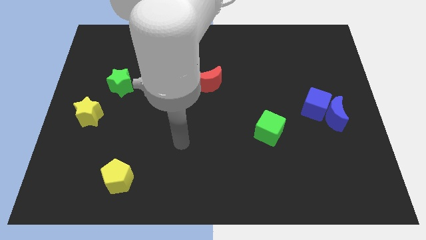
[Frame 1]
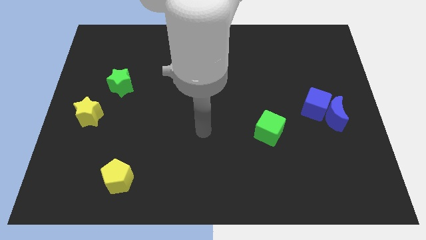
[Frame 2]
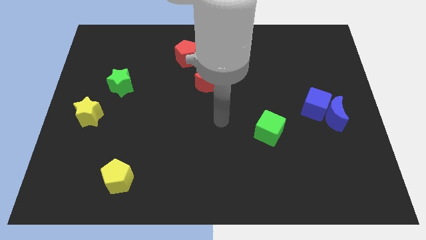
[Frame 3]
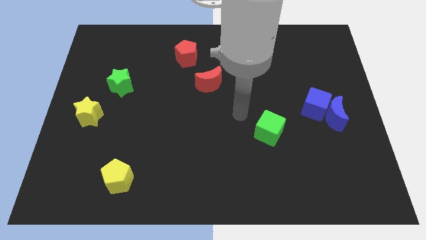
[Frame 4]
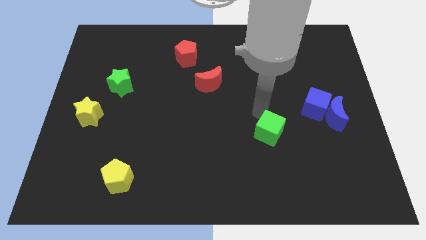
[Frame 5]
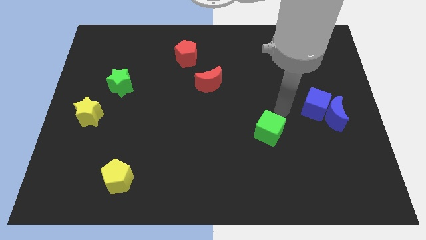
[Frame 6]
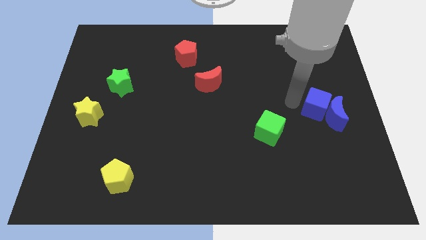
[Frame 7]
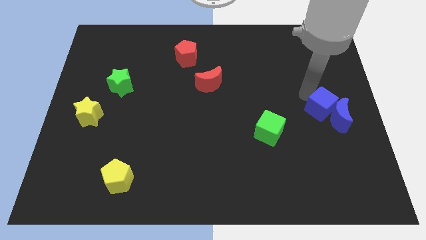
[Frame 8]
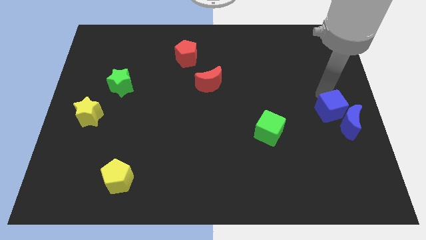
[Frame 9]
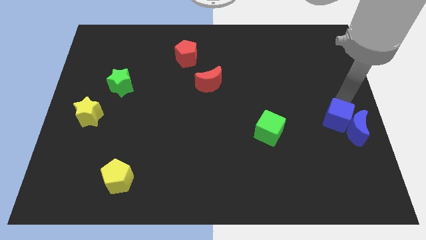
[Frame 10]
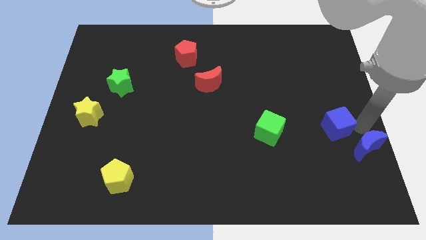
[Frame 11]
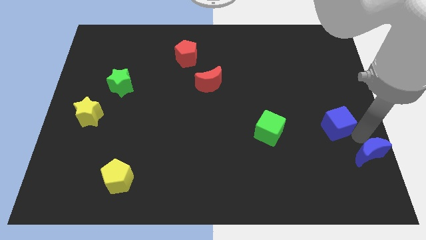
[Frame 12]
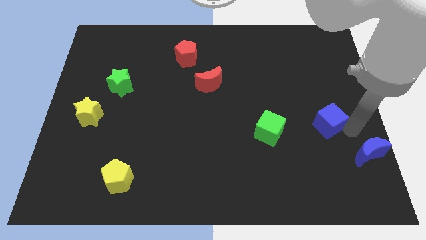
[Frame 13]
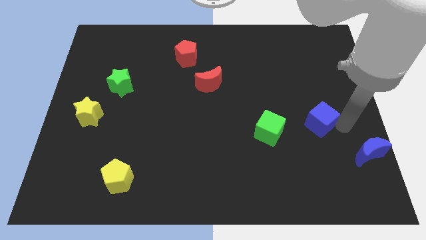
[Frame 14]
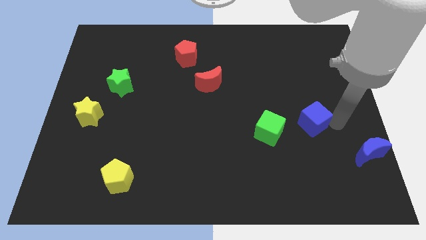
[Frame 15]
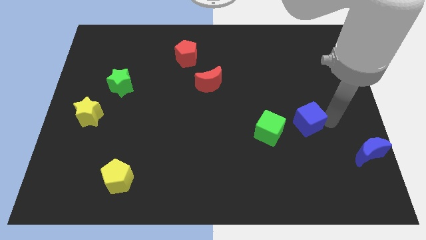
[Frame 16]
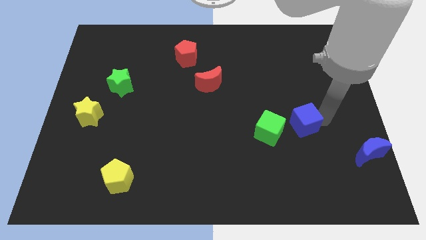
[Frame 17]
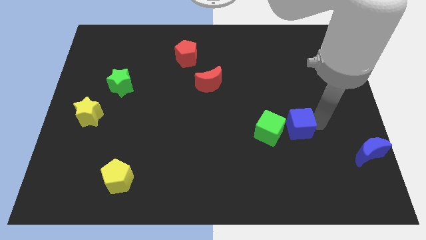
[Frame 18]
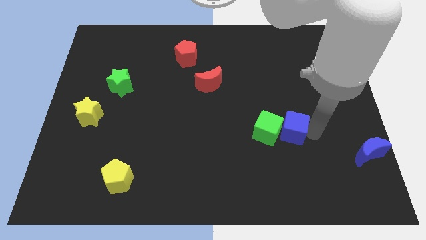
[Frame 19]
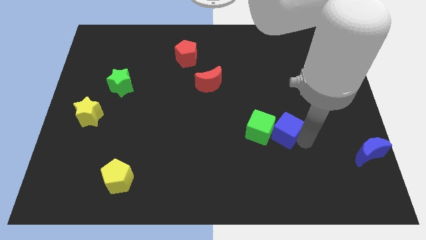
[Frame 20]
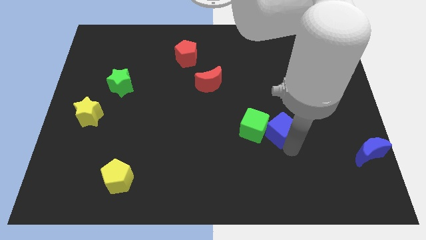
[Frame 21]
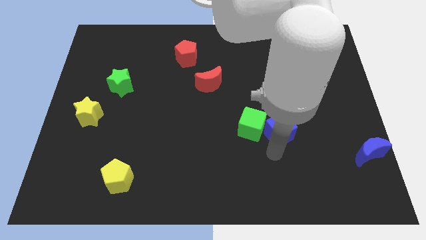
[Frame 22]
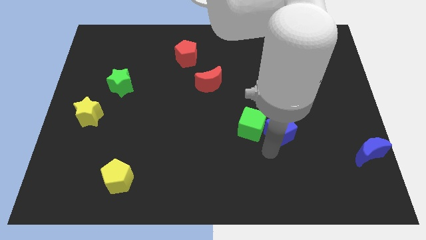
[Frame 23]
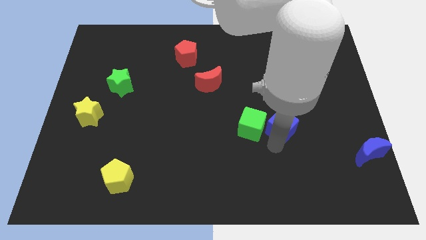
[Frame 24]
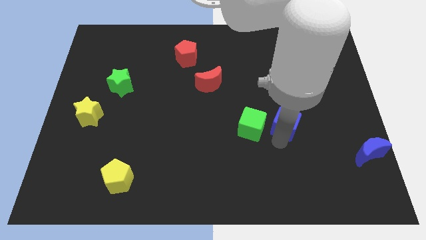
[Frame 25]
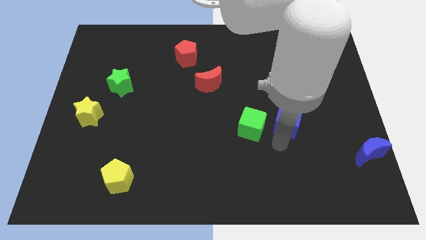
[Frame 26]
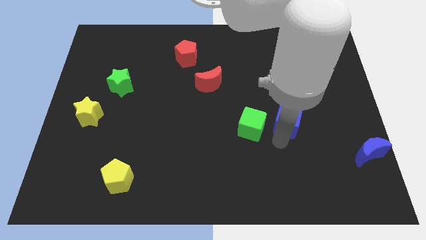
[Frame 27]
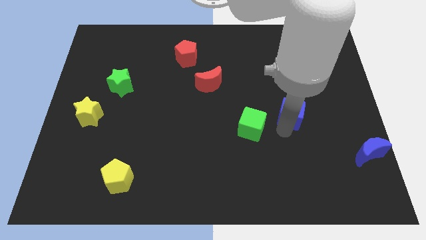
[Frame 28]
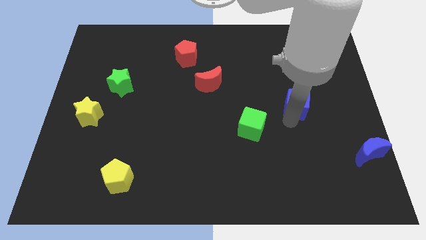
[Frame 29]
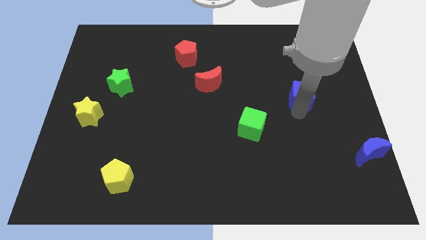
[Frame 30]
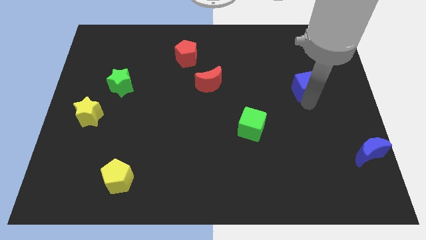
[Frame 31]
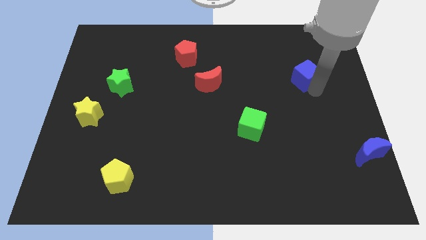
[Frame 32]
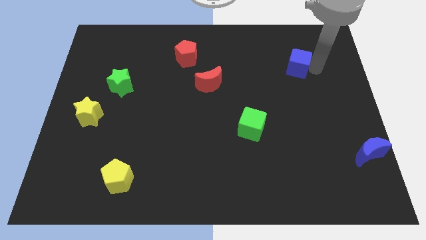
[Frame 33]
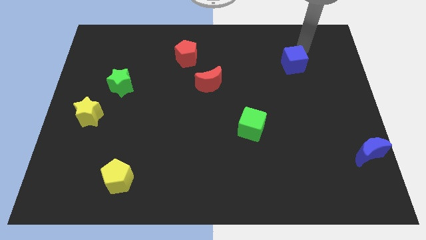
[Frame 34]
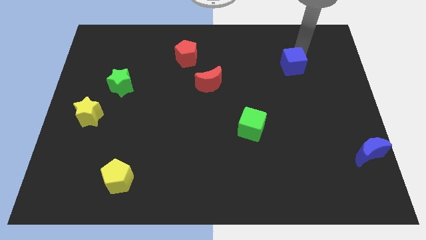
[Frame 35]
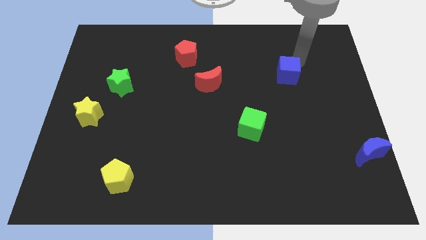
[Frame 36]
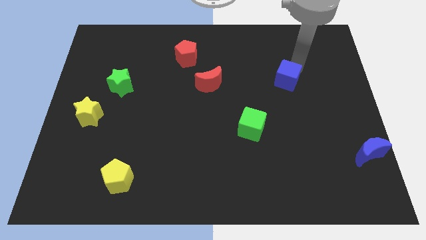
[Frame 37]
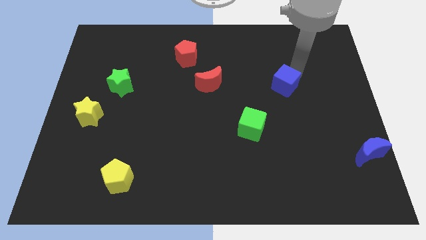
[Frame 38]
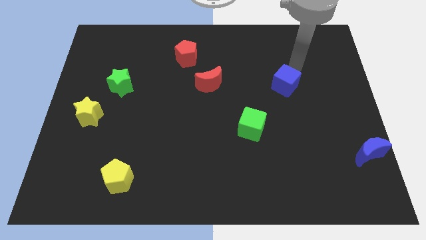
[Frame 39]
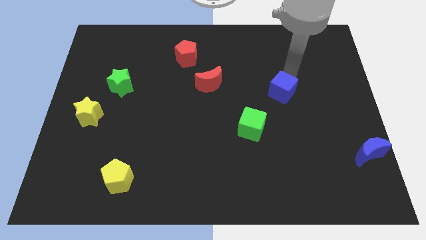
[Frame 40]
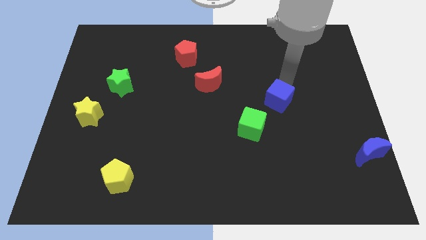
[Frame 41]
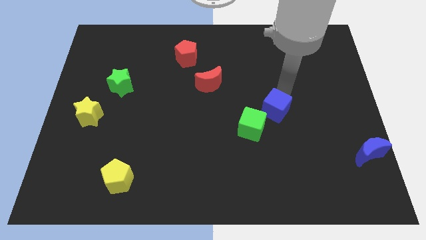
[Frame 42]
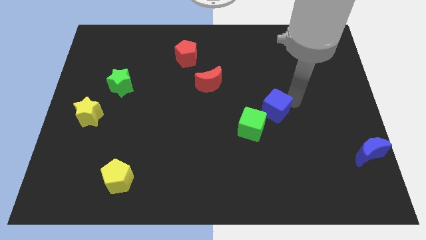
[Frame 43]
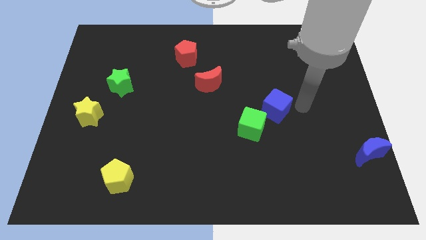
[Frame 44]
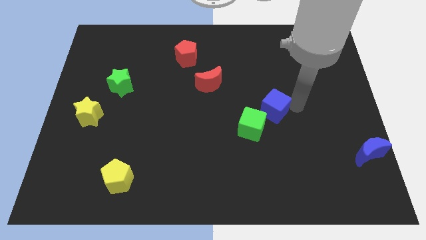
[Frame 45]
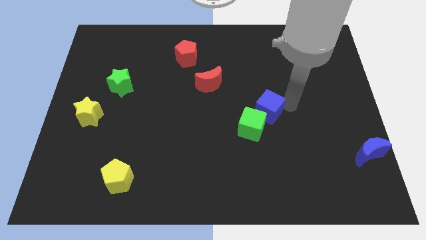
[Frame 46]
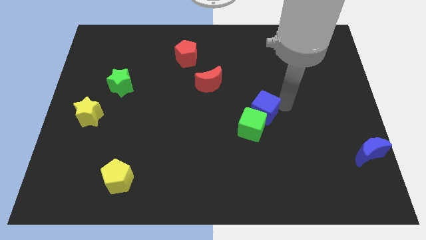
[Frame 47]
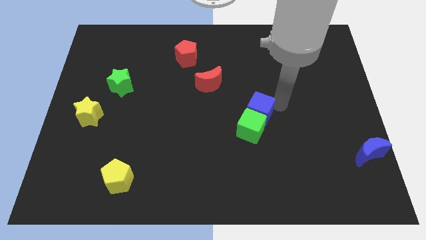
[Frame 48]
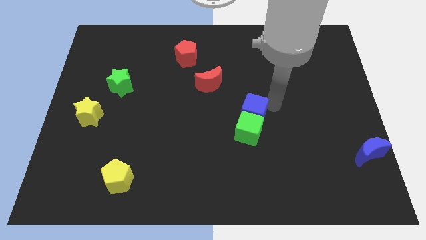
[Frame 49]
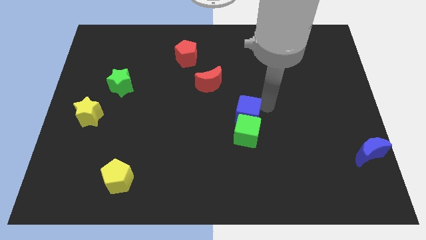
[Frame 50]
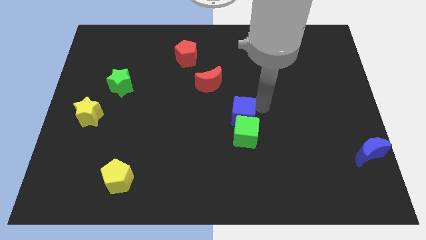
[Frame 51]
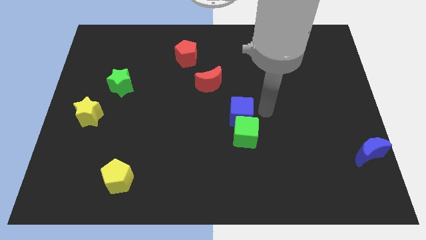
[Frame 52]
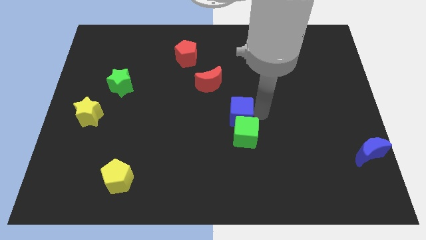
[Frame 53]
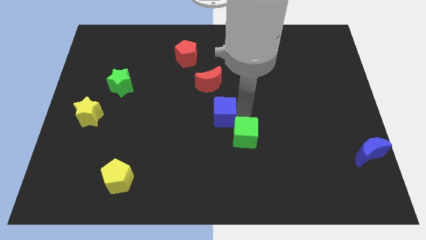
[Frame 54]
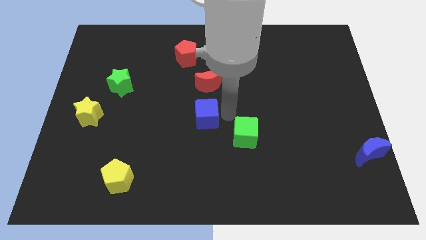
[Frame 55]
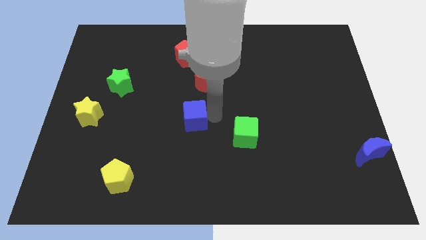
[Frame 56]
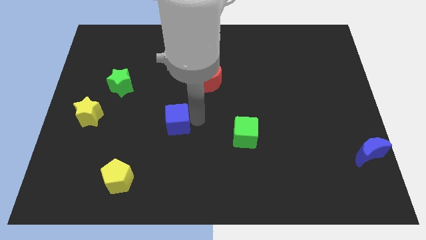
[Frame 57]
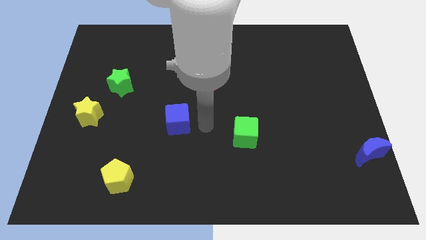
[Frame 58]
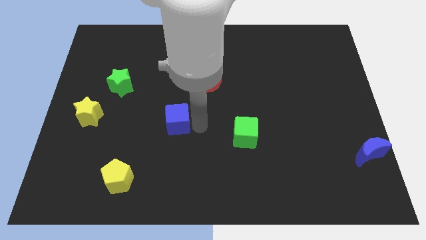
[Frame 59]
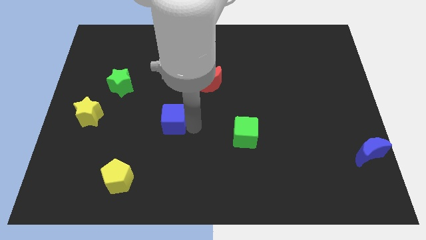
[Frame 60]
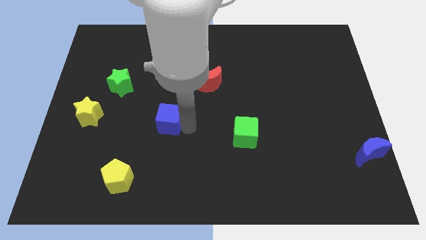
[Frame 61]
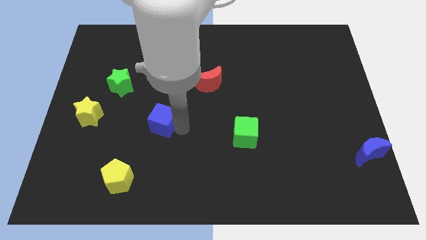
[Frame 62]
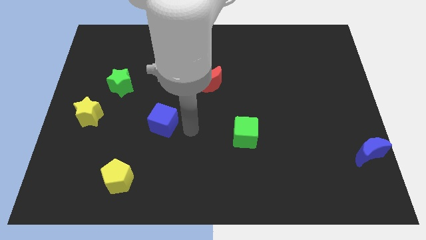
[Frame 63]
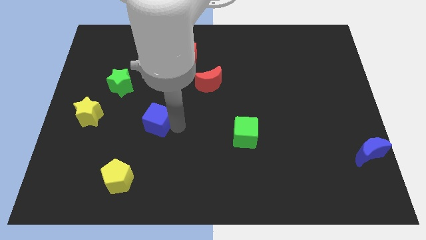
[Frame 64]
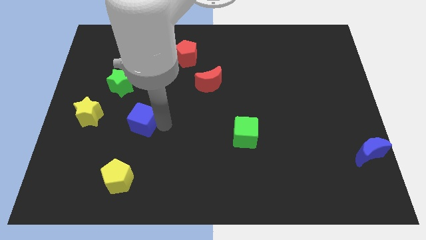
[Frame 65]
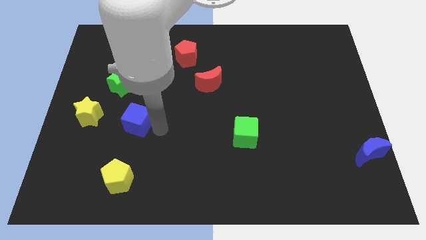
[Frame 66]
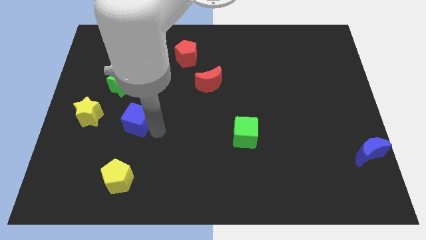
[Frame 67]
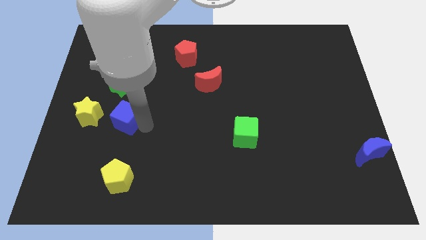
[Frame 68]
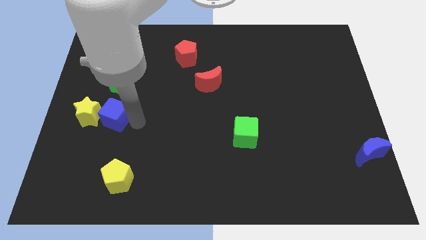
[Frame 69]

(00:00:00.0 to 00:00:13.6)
put the blue cube close to the yellow star

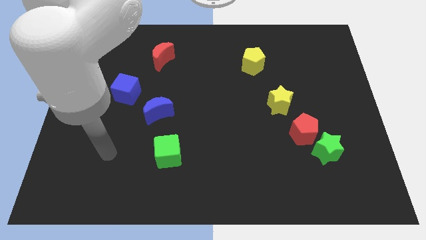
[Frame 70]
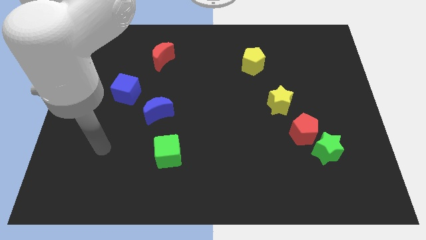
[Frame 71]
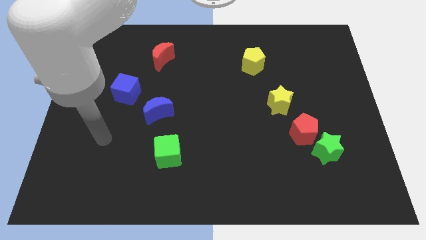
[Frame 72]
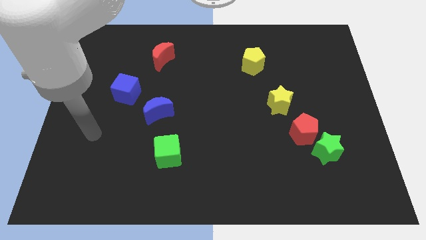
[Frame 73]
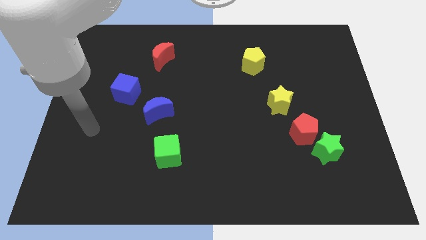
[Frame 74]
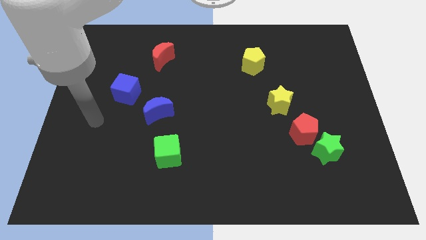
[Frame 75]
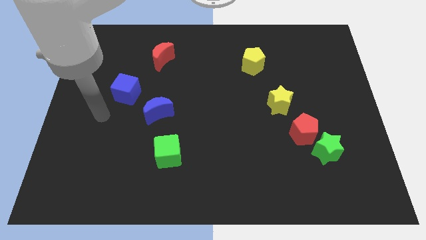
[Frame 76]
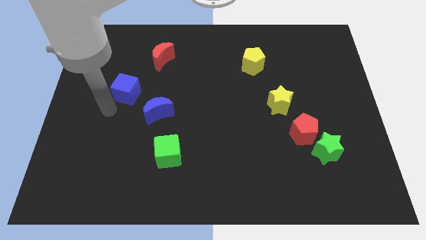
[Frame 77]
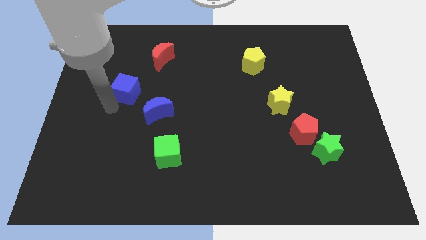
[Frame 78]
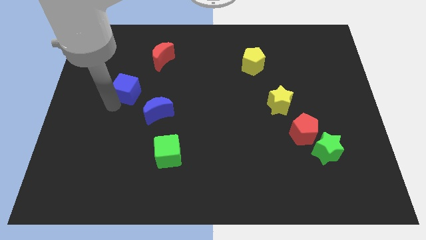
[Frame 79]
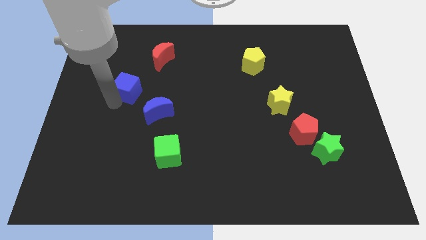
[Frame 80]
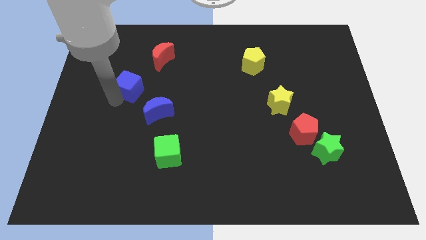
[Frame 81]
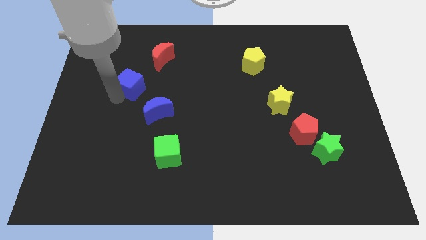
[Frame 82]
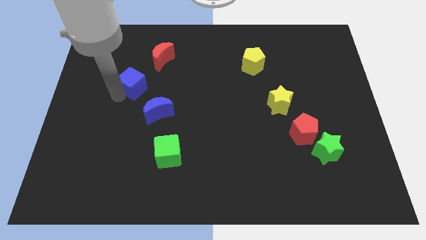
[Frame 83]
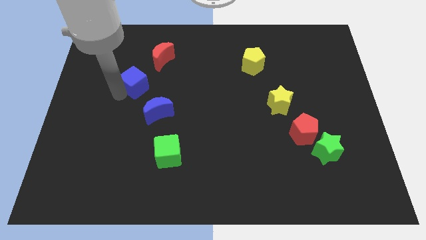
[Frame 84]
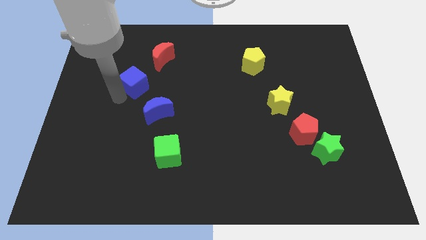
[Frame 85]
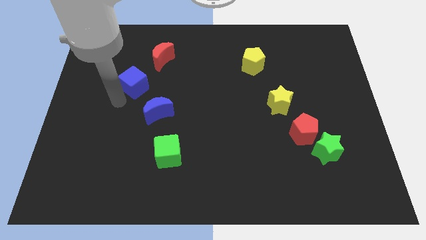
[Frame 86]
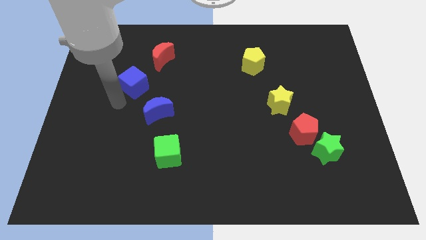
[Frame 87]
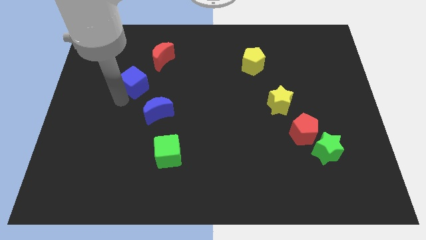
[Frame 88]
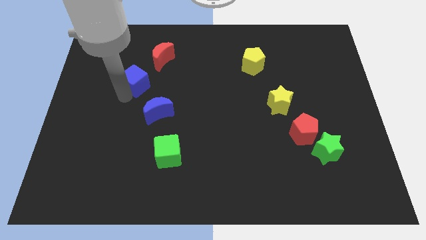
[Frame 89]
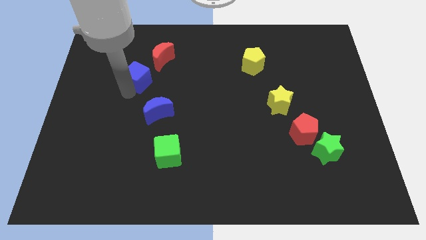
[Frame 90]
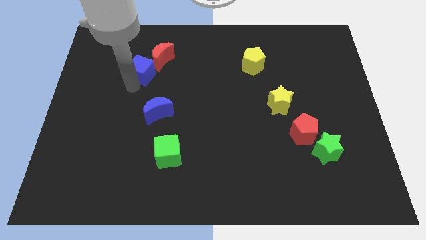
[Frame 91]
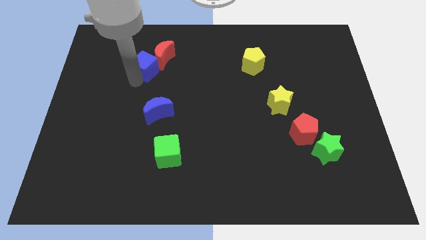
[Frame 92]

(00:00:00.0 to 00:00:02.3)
push the blue cube next to the red moon
